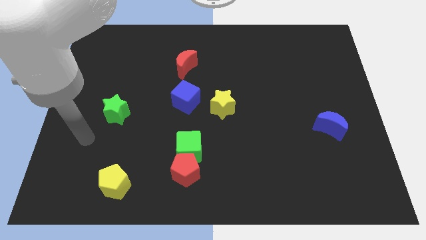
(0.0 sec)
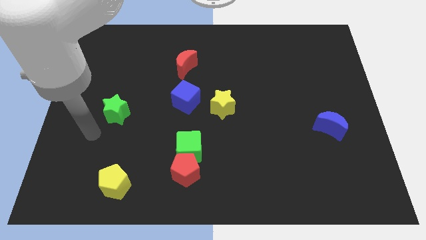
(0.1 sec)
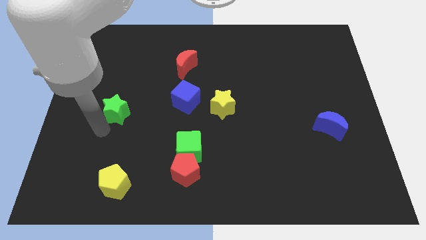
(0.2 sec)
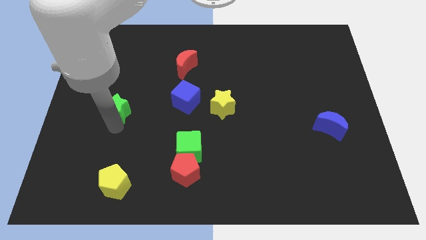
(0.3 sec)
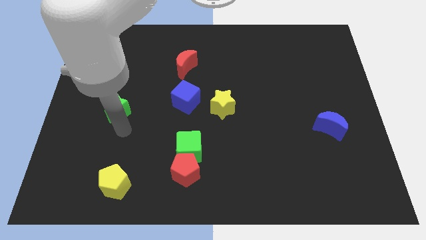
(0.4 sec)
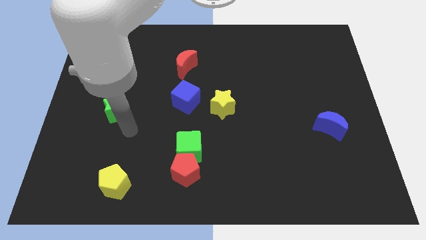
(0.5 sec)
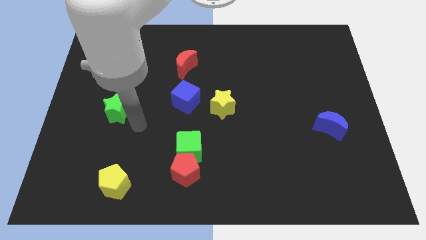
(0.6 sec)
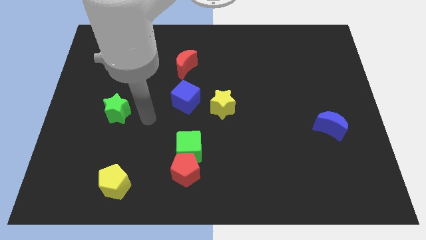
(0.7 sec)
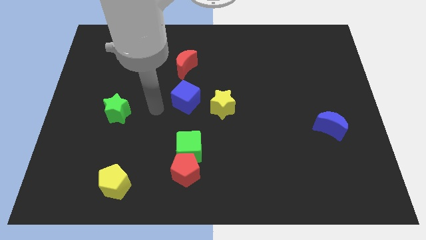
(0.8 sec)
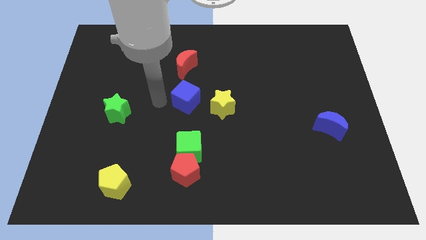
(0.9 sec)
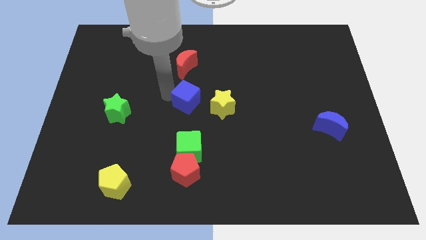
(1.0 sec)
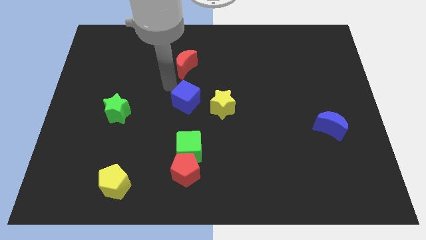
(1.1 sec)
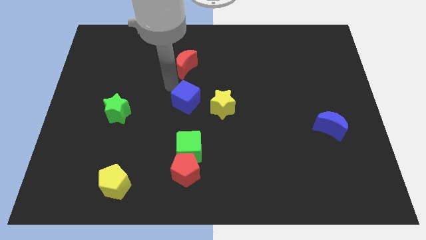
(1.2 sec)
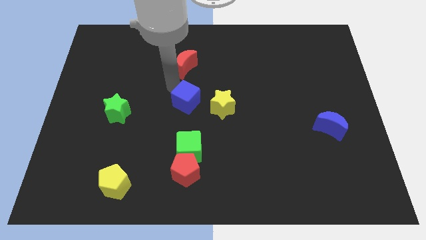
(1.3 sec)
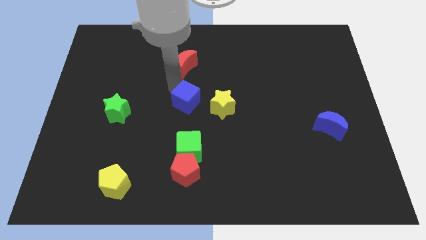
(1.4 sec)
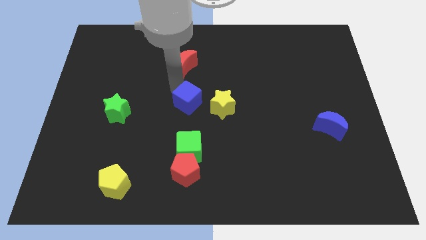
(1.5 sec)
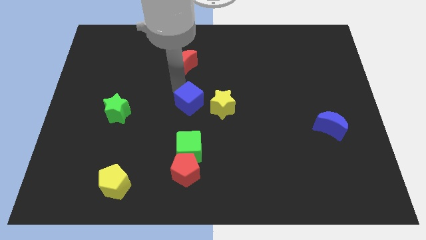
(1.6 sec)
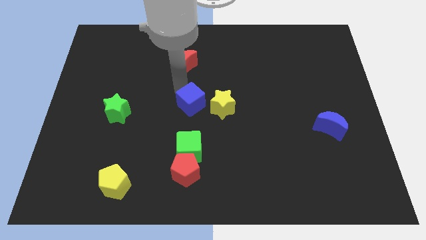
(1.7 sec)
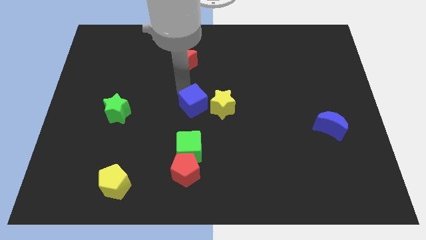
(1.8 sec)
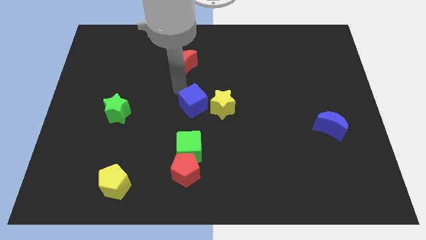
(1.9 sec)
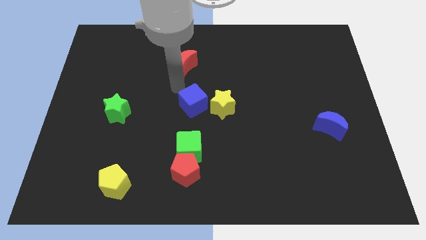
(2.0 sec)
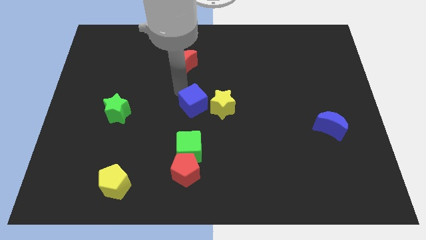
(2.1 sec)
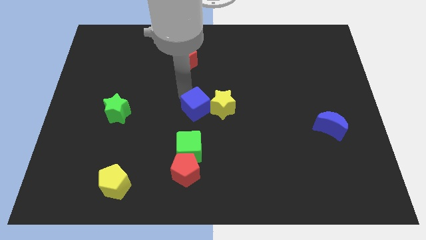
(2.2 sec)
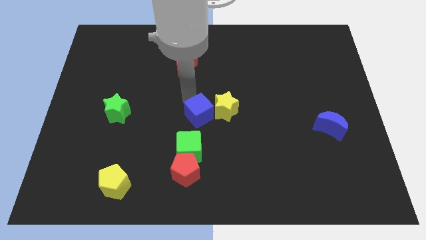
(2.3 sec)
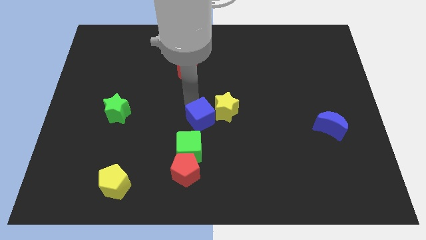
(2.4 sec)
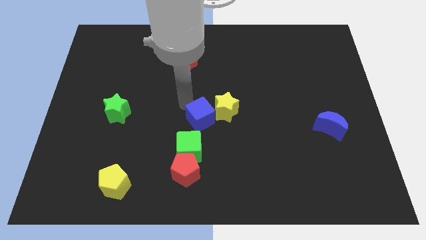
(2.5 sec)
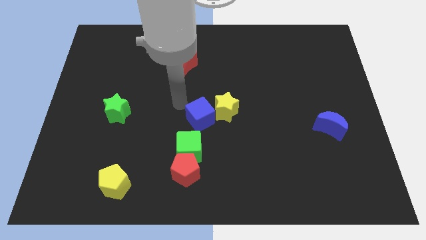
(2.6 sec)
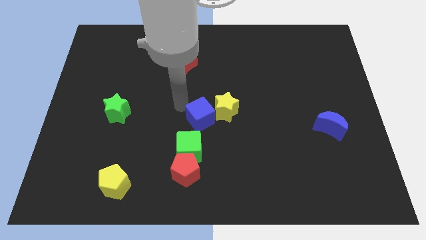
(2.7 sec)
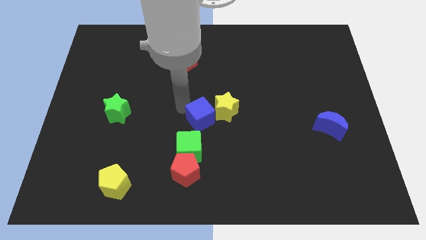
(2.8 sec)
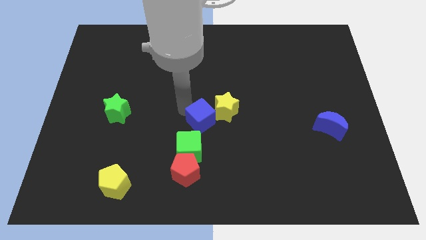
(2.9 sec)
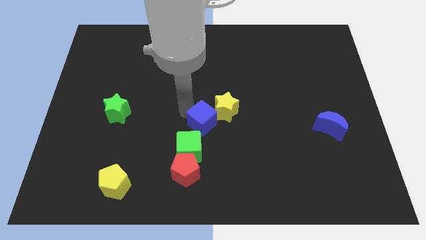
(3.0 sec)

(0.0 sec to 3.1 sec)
move the blue cube down and to the right a bit

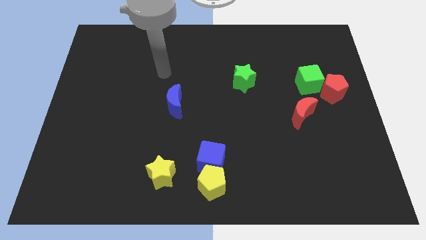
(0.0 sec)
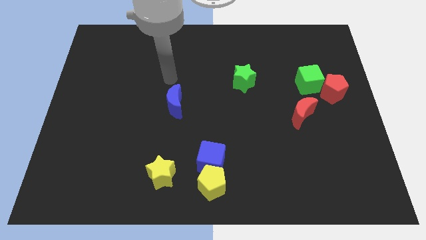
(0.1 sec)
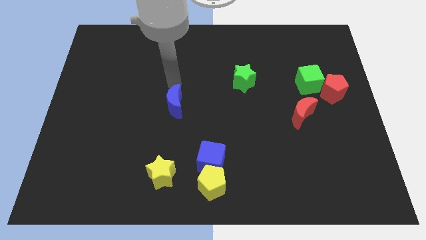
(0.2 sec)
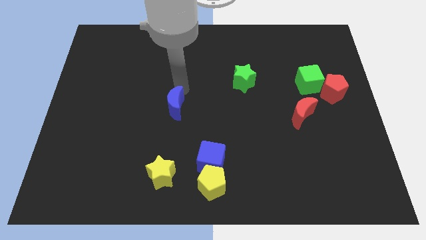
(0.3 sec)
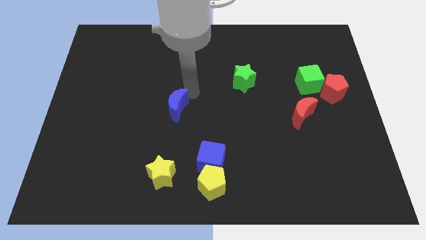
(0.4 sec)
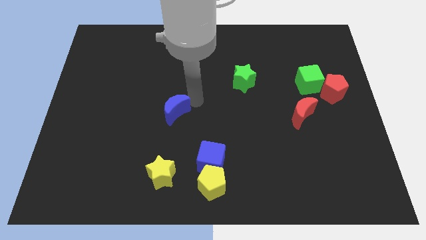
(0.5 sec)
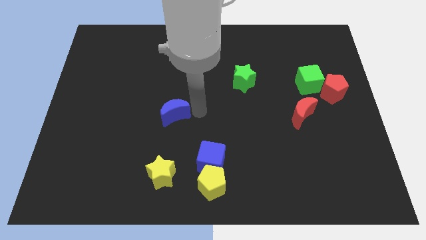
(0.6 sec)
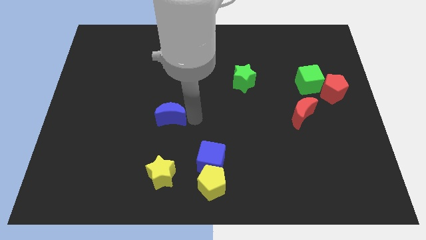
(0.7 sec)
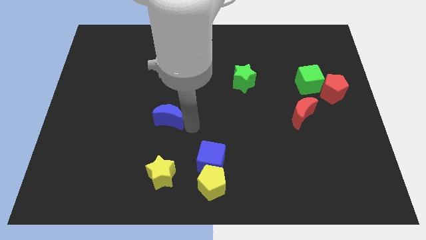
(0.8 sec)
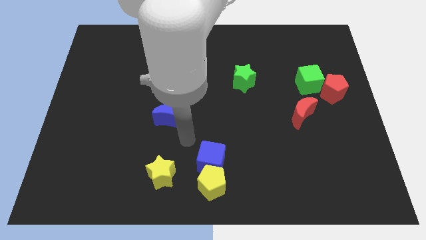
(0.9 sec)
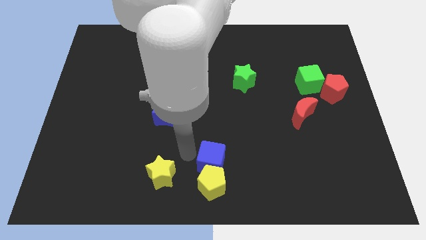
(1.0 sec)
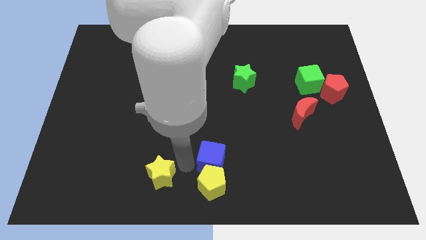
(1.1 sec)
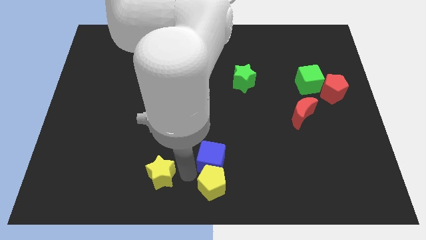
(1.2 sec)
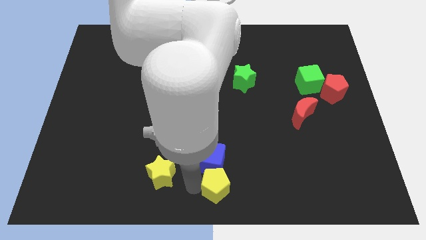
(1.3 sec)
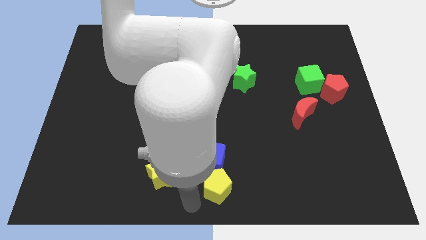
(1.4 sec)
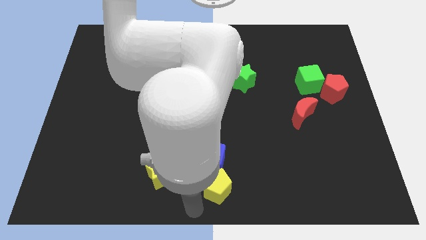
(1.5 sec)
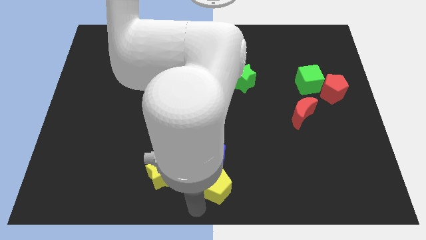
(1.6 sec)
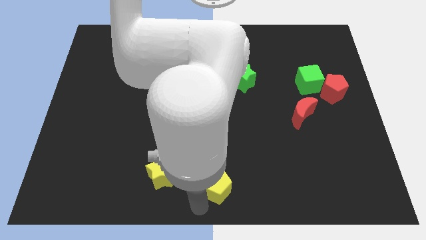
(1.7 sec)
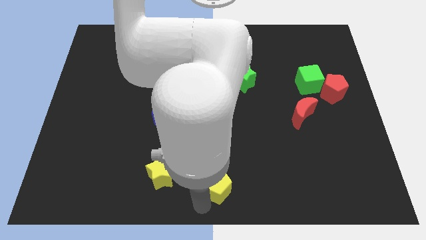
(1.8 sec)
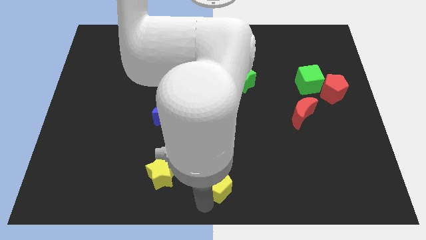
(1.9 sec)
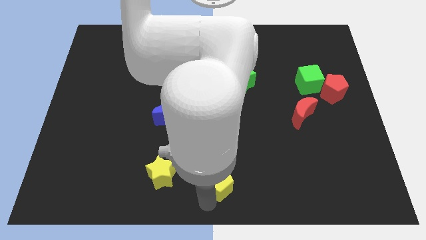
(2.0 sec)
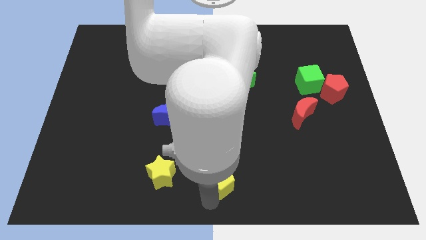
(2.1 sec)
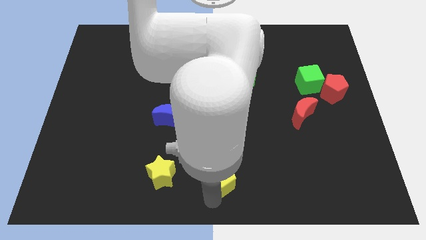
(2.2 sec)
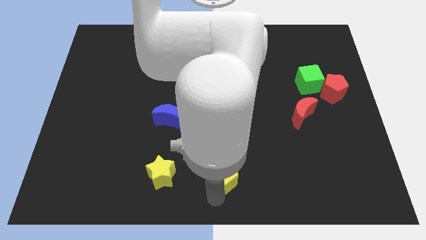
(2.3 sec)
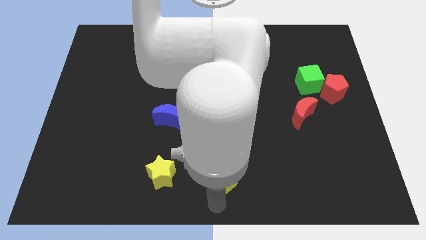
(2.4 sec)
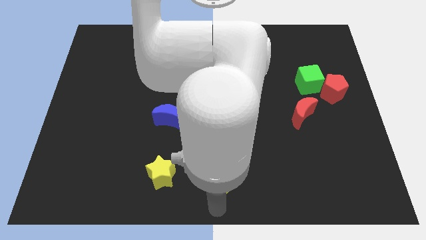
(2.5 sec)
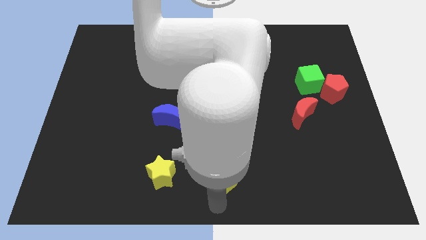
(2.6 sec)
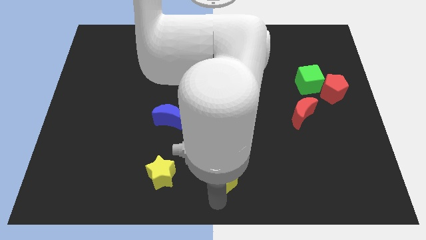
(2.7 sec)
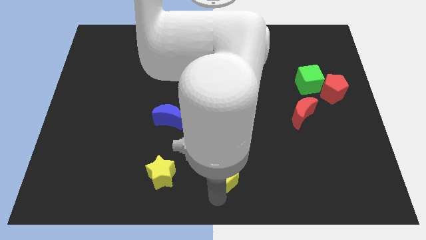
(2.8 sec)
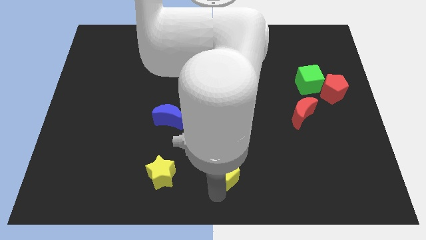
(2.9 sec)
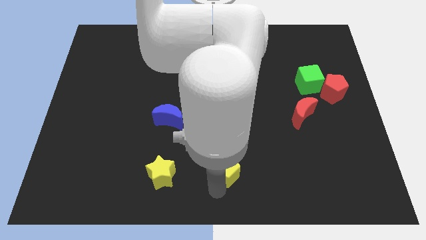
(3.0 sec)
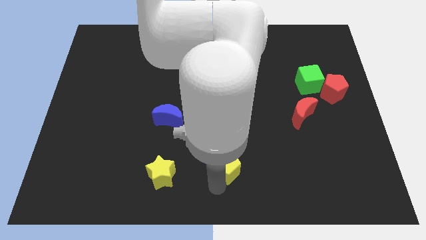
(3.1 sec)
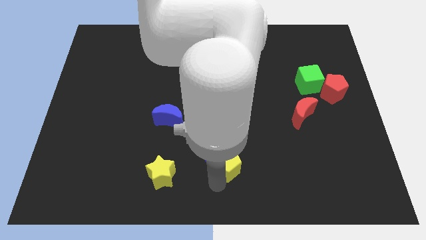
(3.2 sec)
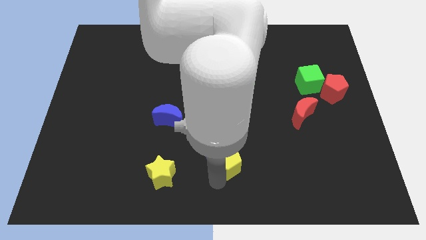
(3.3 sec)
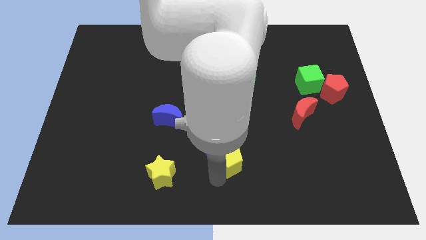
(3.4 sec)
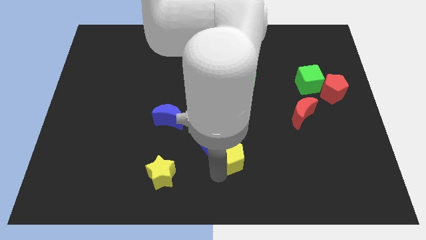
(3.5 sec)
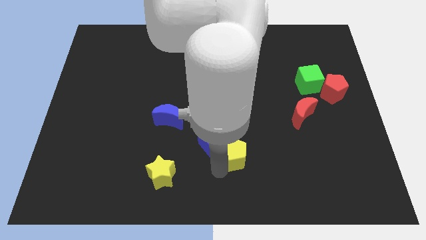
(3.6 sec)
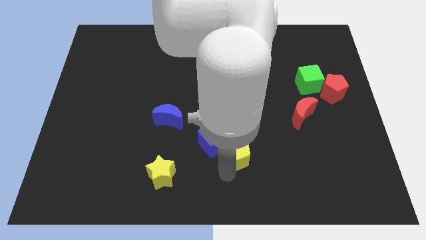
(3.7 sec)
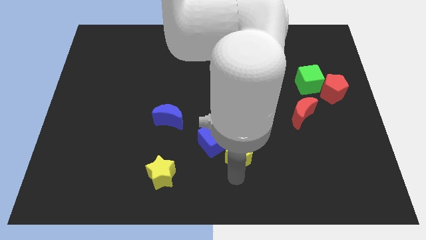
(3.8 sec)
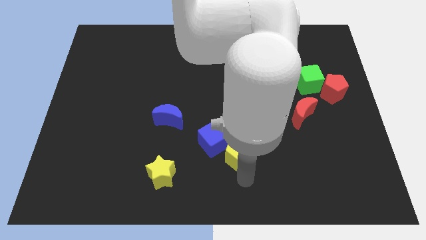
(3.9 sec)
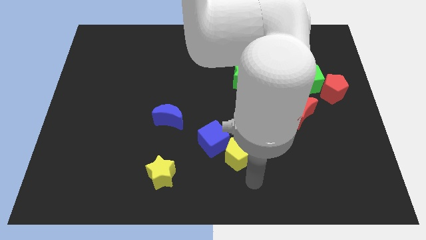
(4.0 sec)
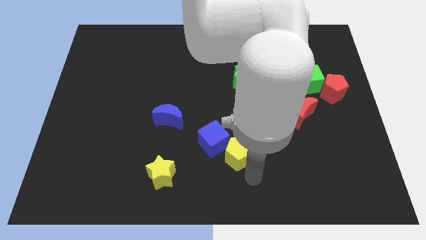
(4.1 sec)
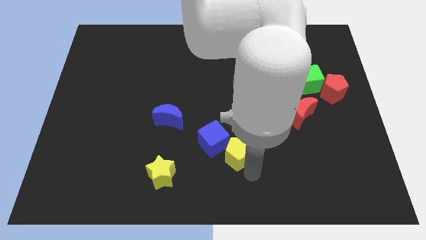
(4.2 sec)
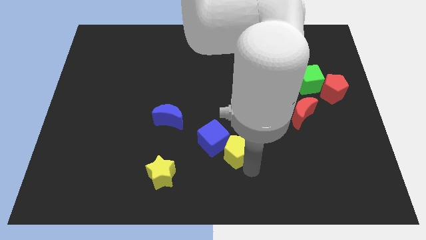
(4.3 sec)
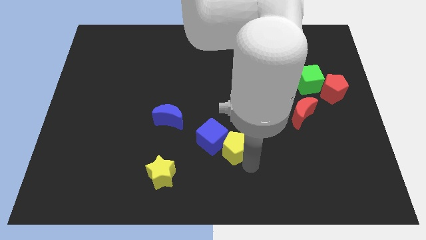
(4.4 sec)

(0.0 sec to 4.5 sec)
slide the yellow pentagon upwards slightly
